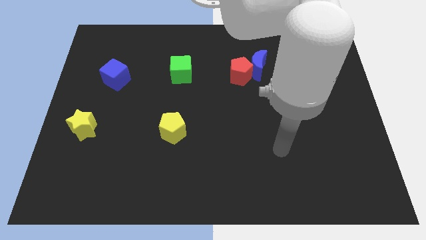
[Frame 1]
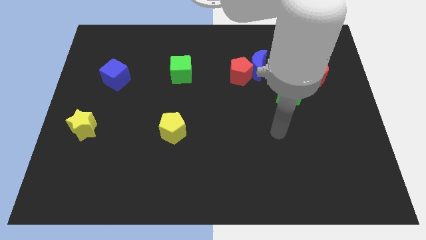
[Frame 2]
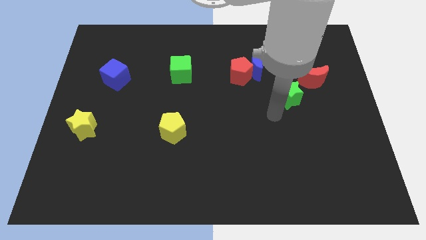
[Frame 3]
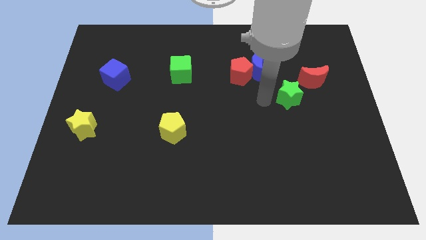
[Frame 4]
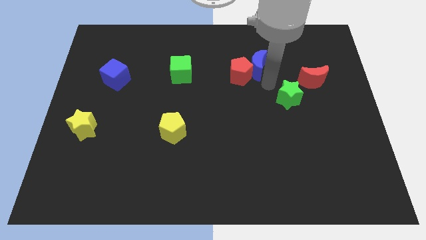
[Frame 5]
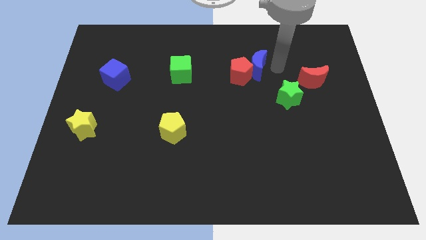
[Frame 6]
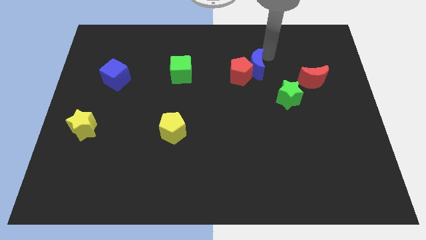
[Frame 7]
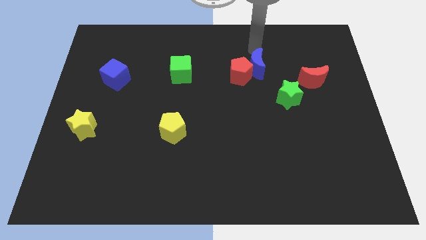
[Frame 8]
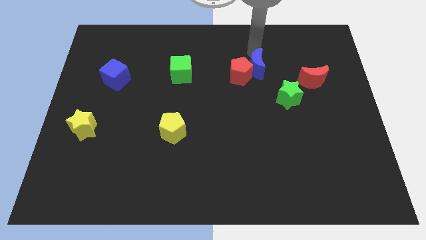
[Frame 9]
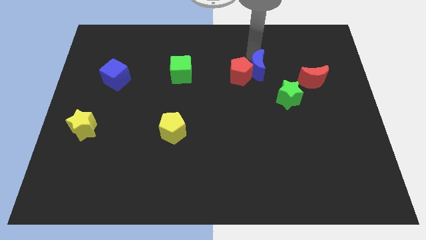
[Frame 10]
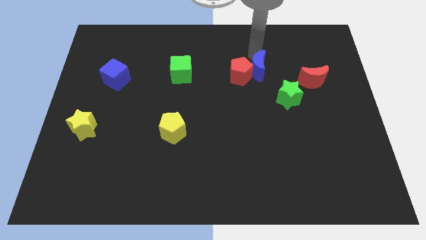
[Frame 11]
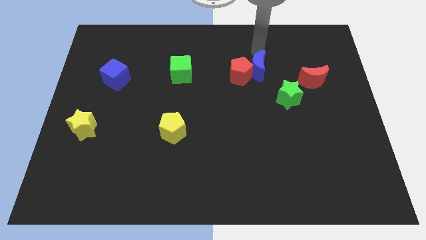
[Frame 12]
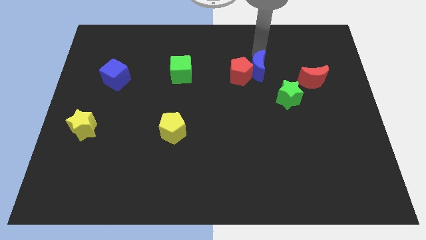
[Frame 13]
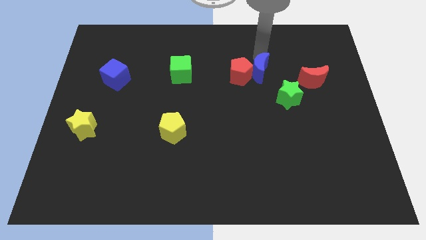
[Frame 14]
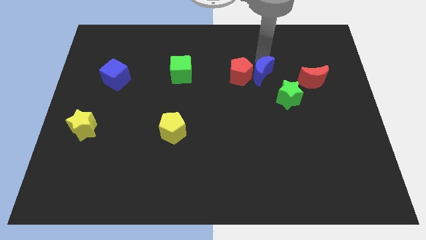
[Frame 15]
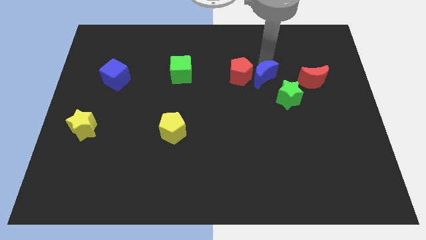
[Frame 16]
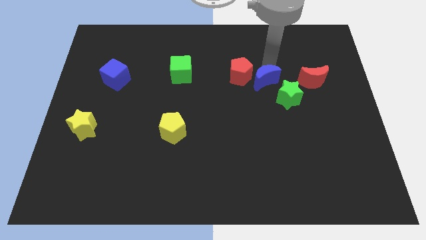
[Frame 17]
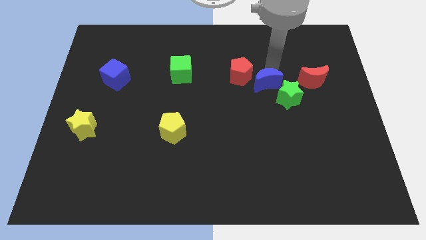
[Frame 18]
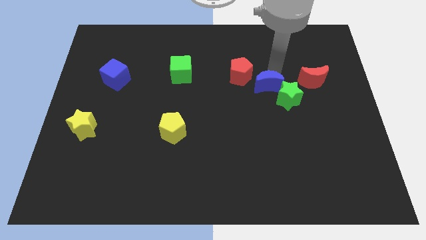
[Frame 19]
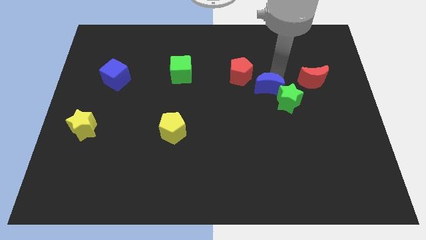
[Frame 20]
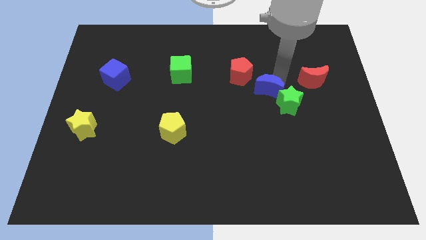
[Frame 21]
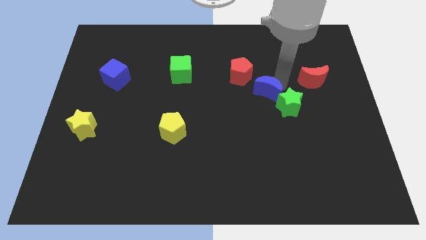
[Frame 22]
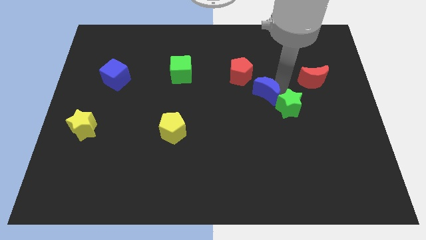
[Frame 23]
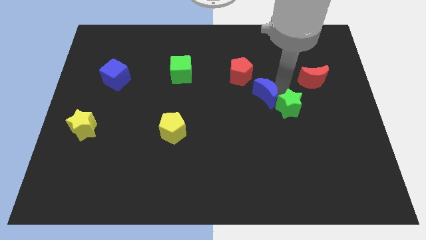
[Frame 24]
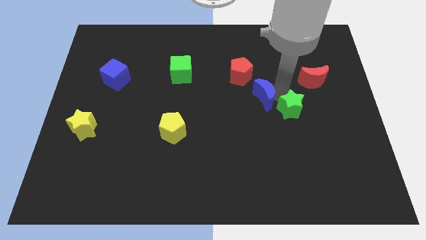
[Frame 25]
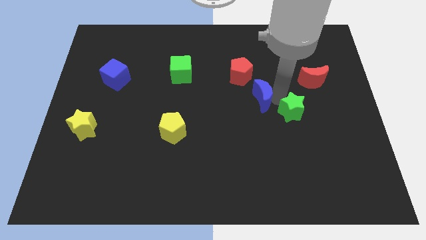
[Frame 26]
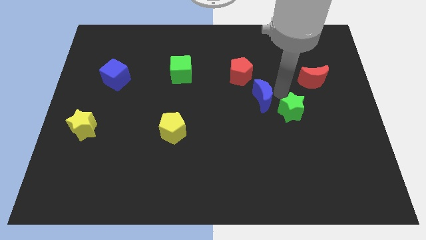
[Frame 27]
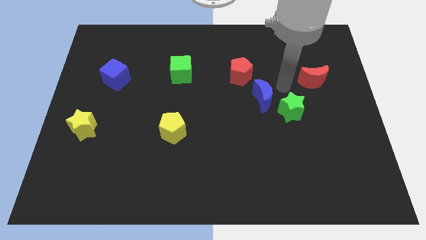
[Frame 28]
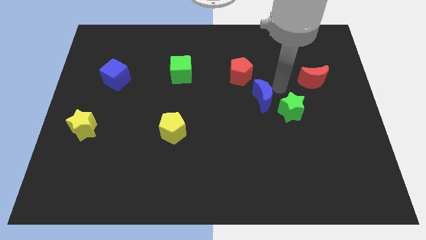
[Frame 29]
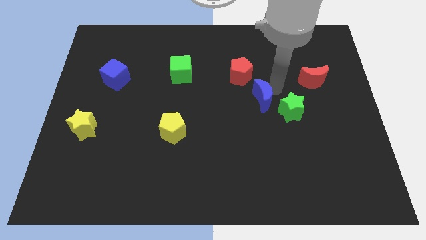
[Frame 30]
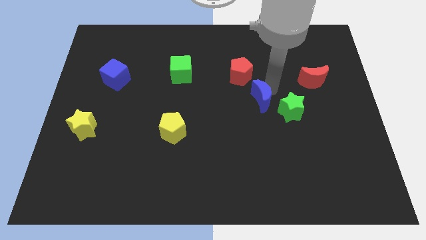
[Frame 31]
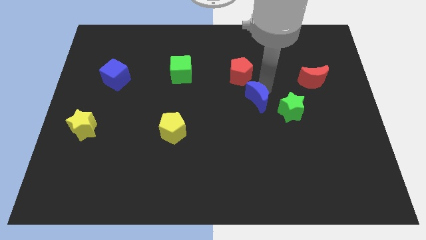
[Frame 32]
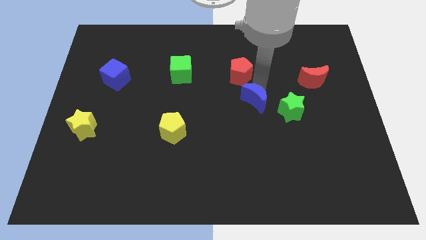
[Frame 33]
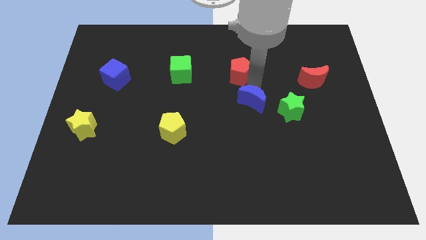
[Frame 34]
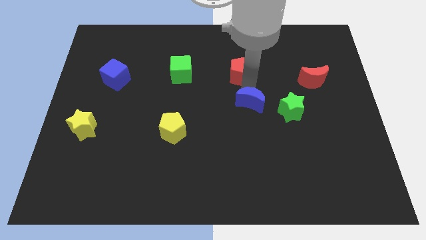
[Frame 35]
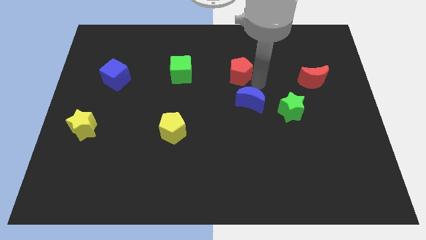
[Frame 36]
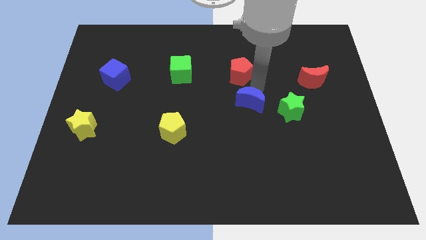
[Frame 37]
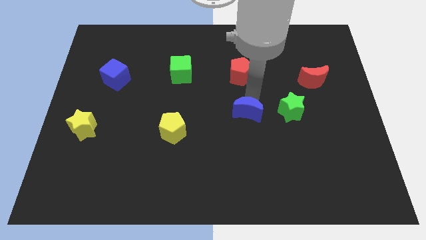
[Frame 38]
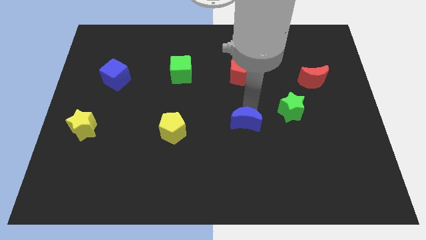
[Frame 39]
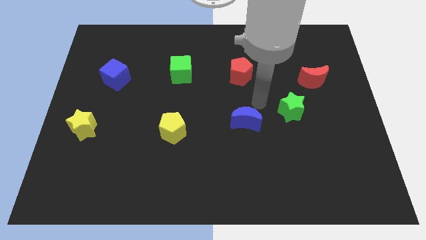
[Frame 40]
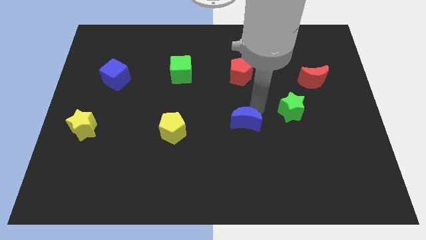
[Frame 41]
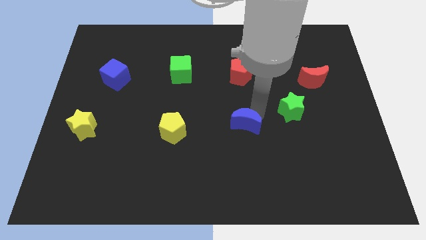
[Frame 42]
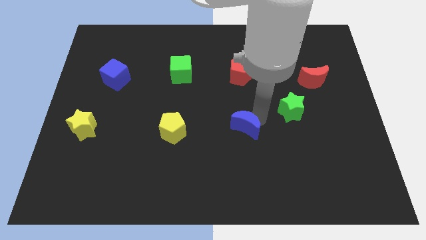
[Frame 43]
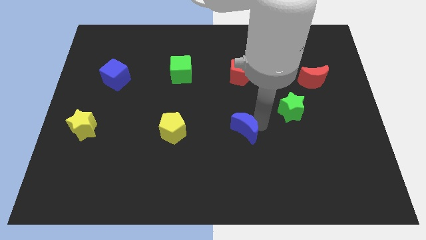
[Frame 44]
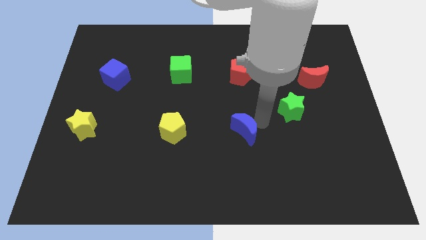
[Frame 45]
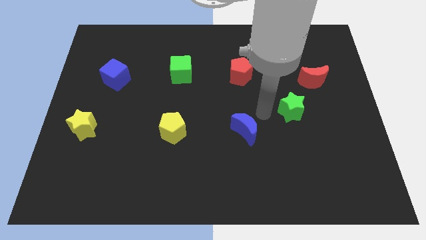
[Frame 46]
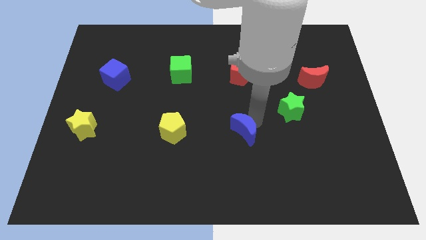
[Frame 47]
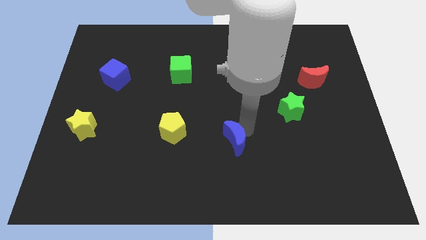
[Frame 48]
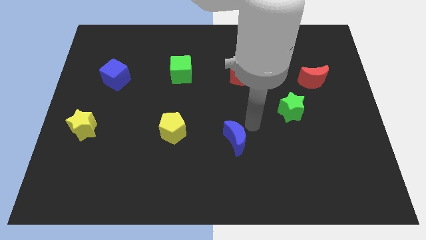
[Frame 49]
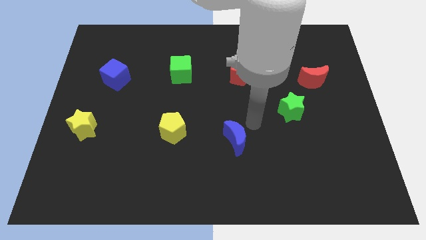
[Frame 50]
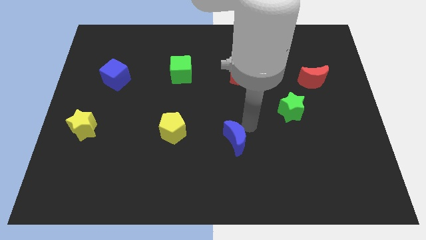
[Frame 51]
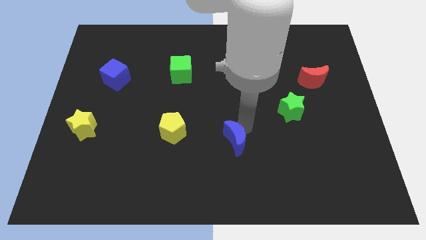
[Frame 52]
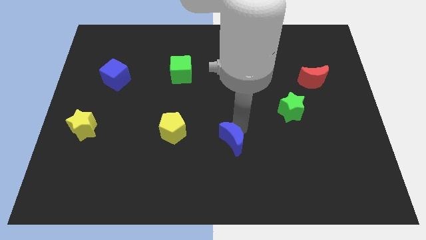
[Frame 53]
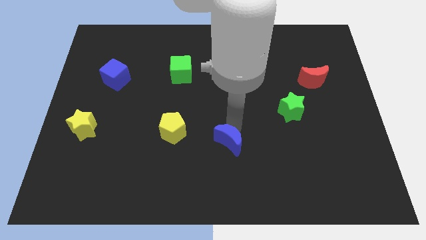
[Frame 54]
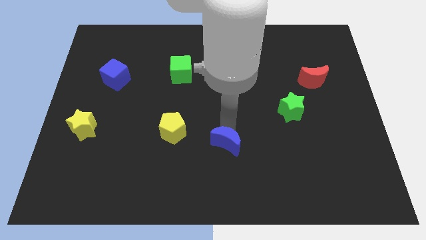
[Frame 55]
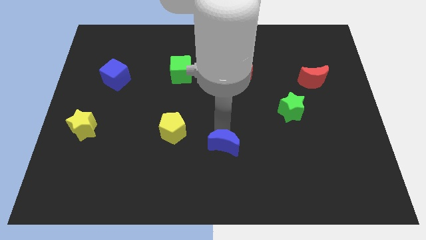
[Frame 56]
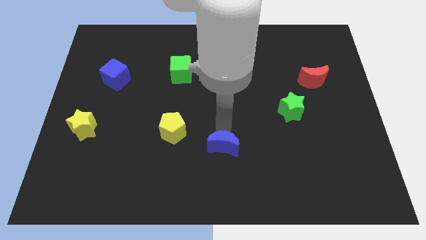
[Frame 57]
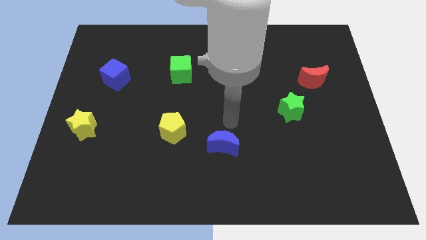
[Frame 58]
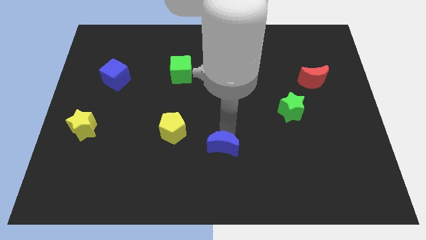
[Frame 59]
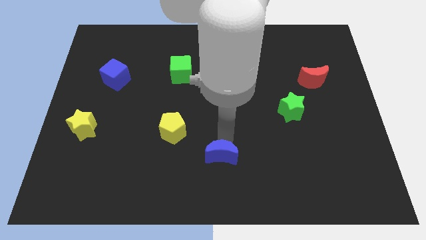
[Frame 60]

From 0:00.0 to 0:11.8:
slide the blue moon to the bottom side

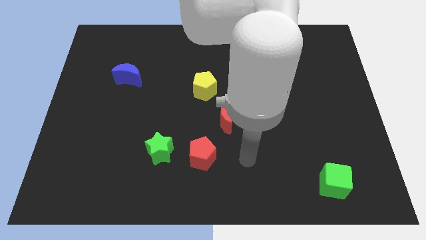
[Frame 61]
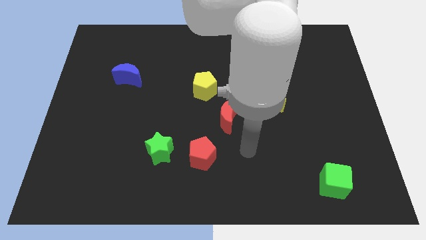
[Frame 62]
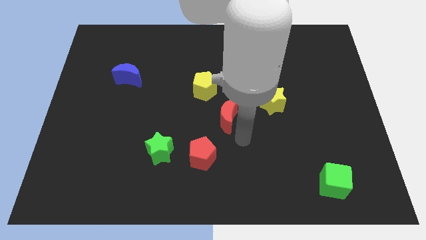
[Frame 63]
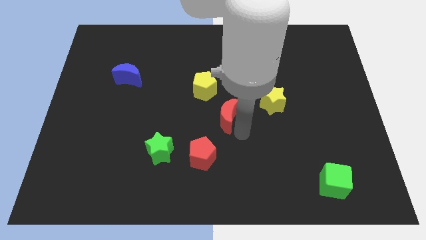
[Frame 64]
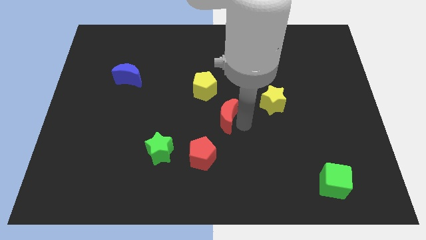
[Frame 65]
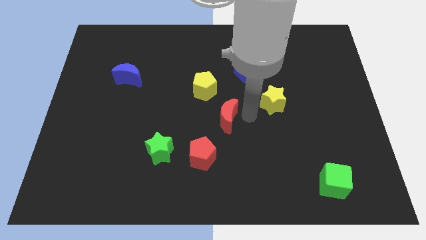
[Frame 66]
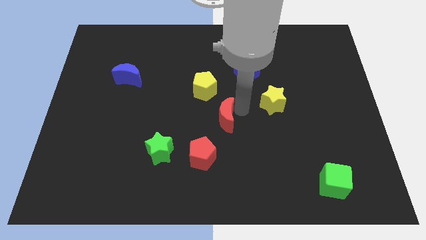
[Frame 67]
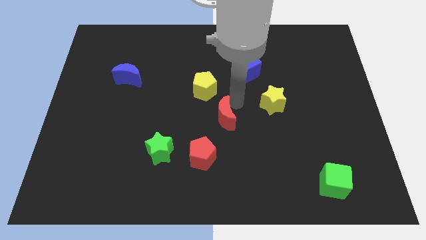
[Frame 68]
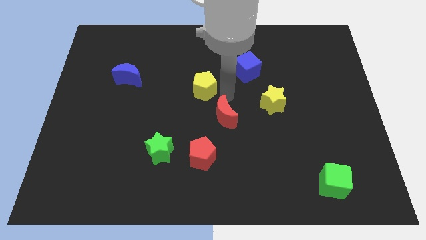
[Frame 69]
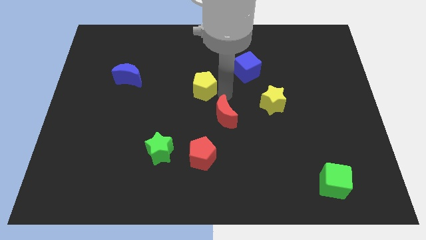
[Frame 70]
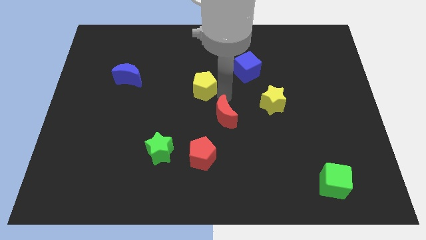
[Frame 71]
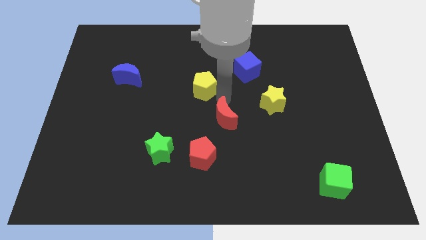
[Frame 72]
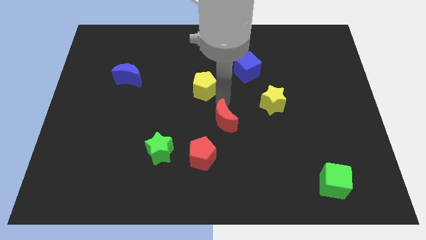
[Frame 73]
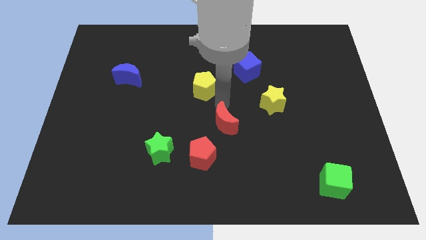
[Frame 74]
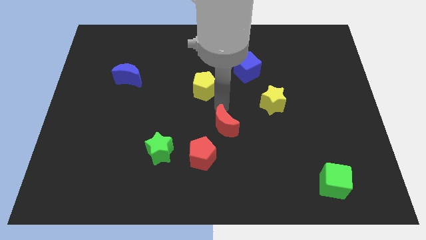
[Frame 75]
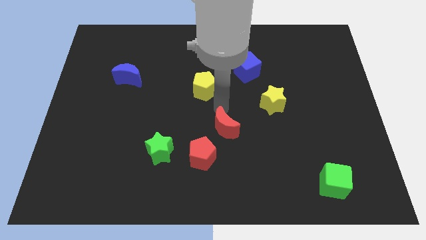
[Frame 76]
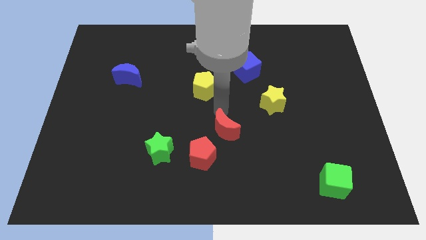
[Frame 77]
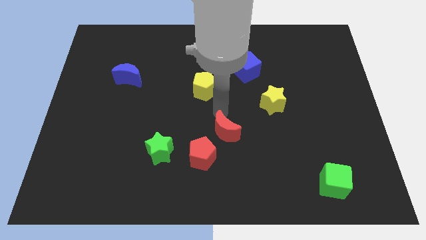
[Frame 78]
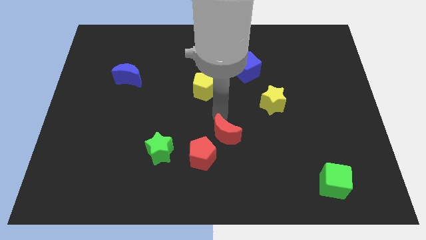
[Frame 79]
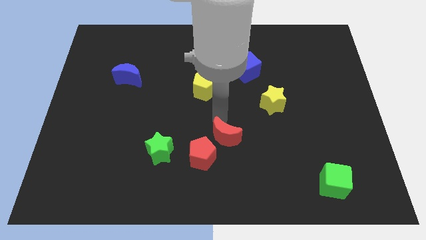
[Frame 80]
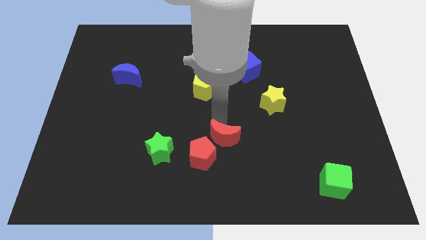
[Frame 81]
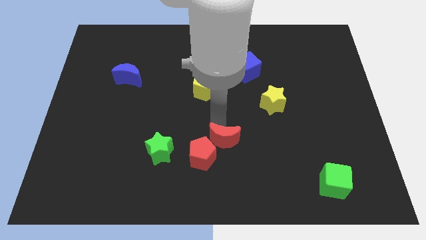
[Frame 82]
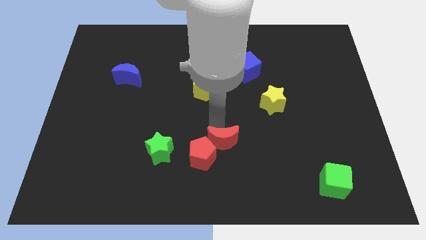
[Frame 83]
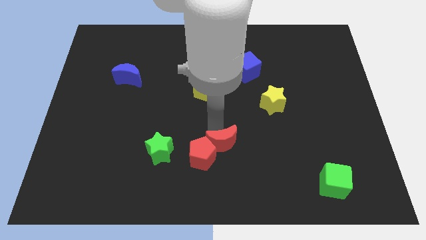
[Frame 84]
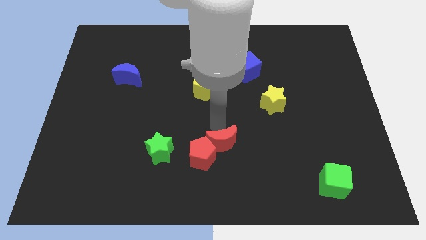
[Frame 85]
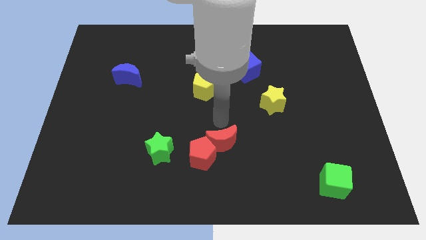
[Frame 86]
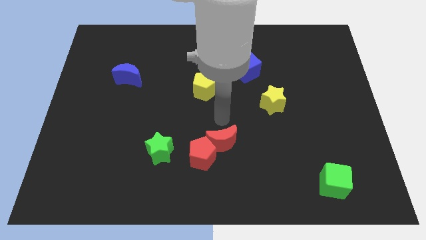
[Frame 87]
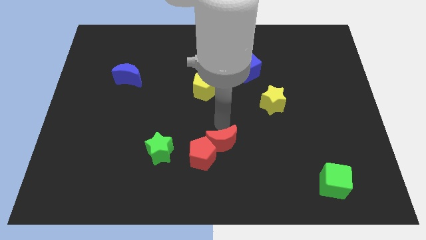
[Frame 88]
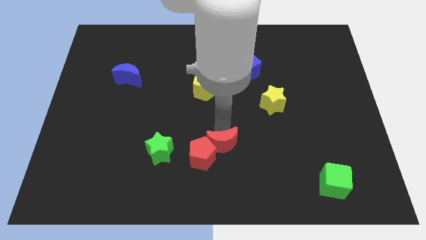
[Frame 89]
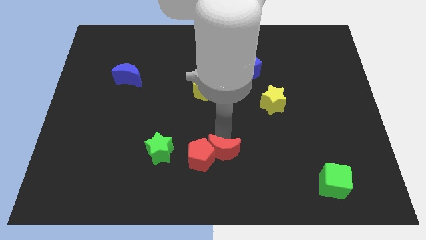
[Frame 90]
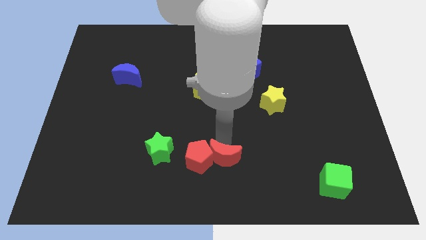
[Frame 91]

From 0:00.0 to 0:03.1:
push the red moon to the bottom
